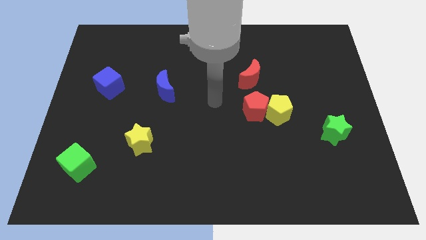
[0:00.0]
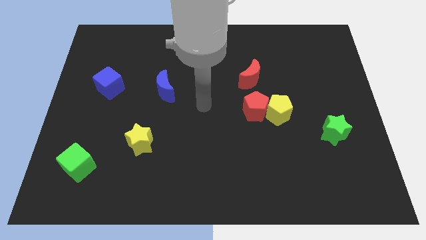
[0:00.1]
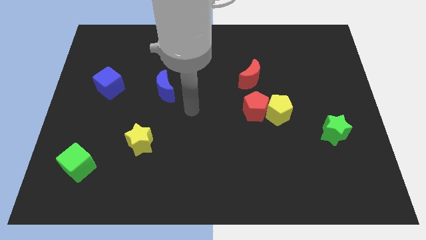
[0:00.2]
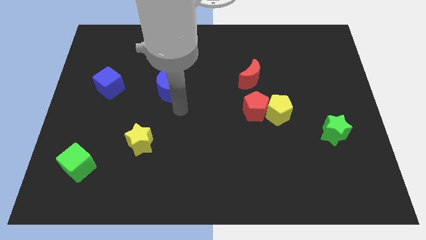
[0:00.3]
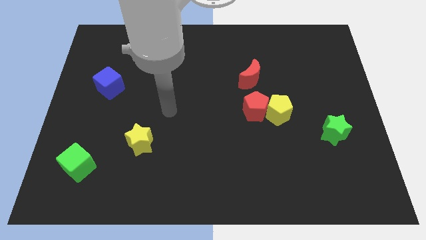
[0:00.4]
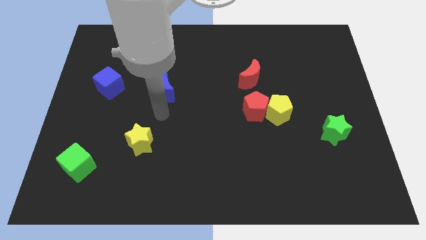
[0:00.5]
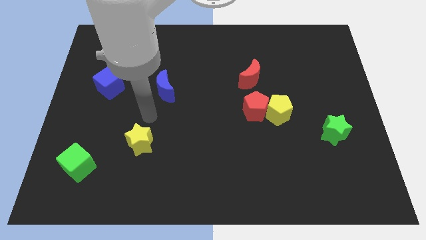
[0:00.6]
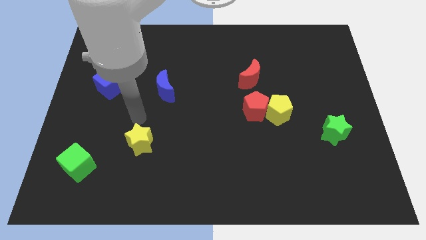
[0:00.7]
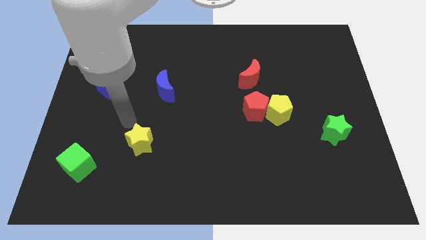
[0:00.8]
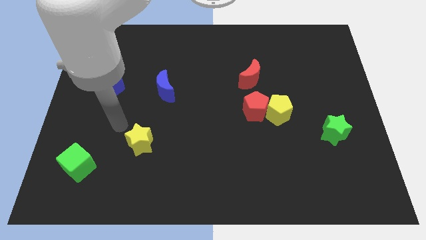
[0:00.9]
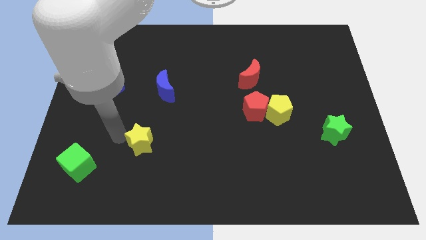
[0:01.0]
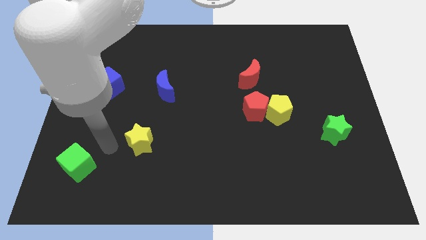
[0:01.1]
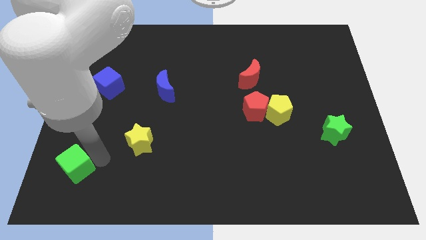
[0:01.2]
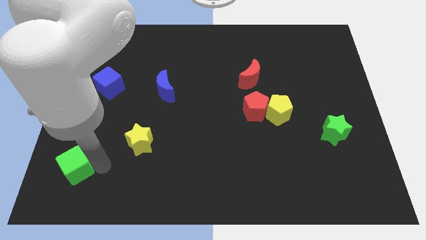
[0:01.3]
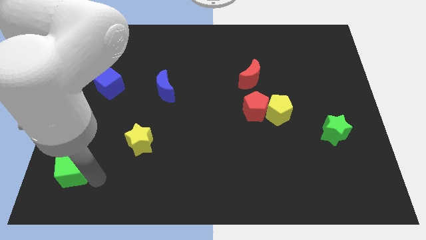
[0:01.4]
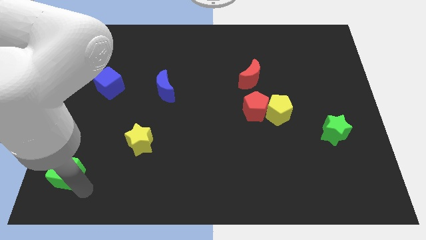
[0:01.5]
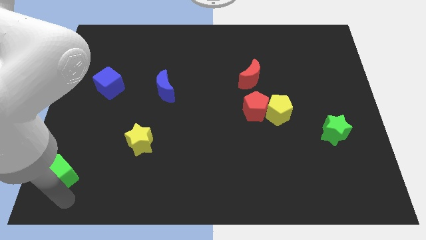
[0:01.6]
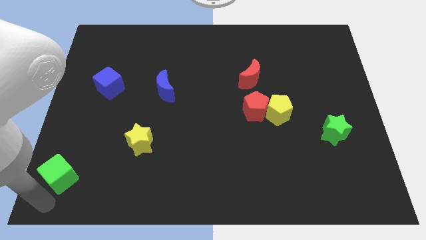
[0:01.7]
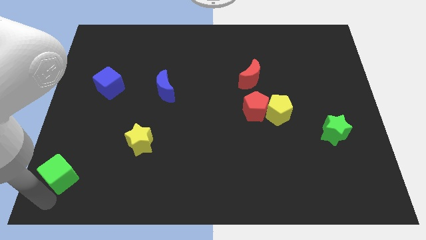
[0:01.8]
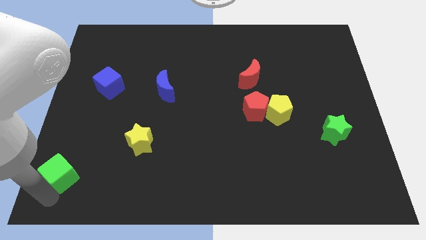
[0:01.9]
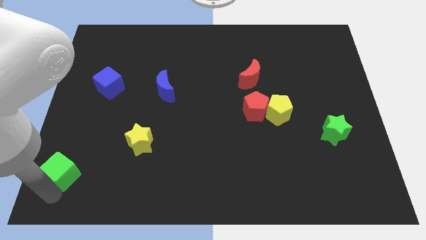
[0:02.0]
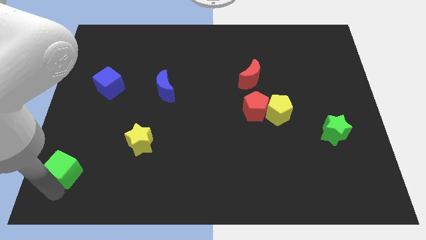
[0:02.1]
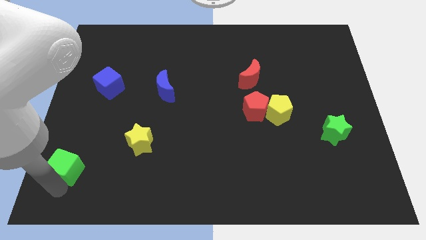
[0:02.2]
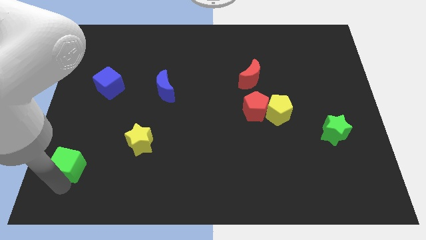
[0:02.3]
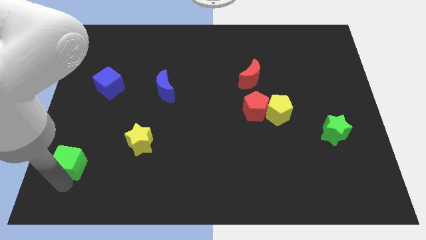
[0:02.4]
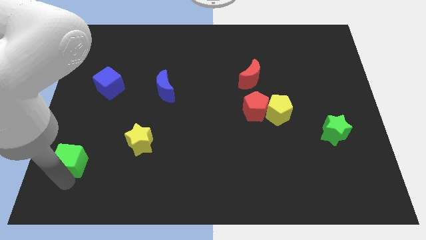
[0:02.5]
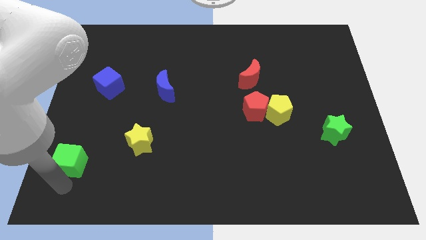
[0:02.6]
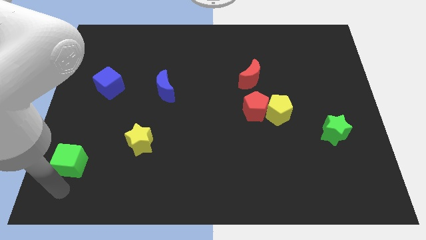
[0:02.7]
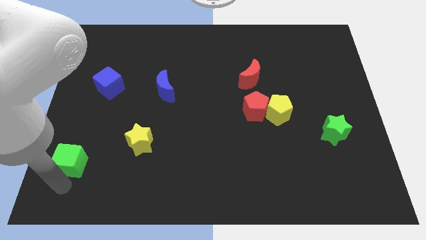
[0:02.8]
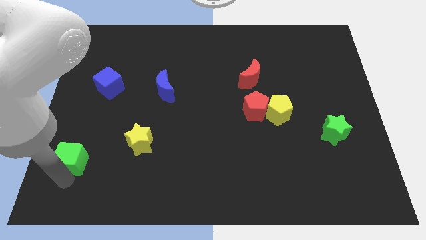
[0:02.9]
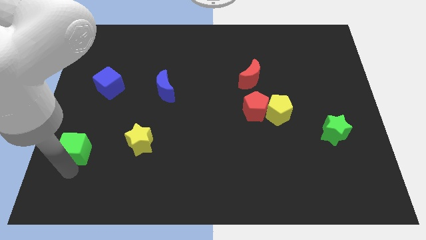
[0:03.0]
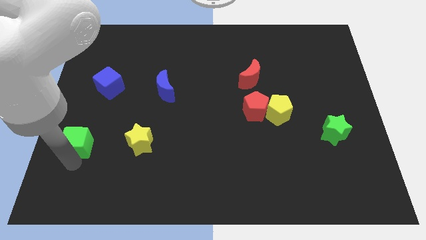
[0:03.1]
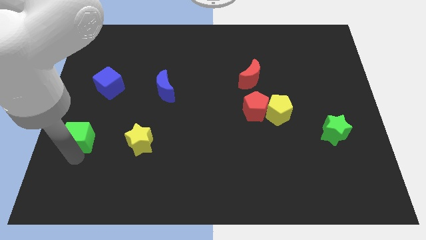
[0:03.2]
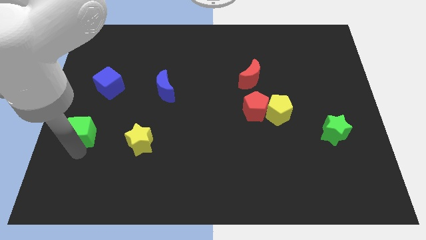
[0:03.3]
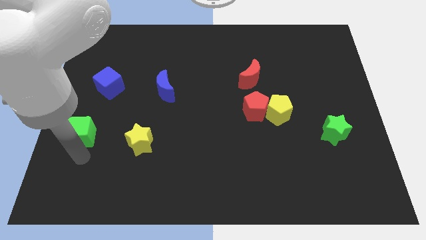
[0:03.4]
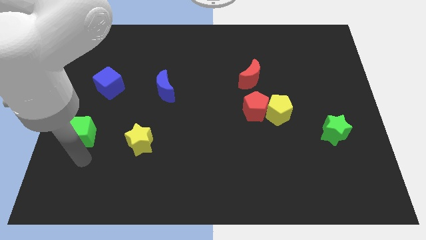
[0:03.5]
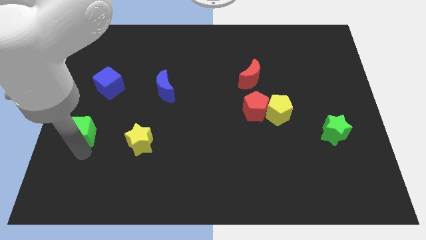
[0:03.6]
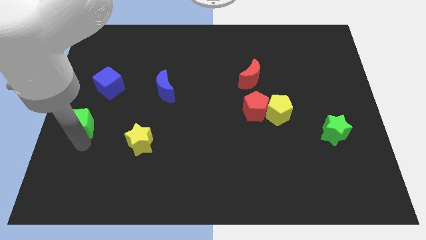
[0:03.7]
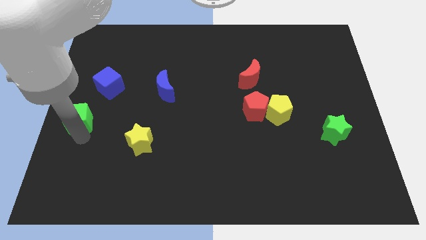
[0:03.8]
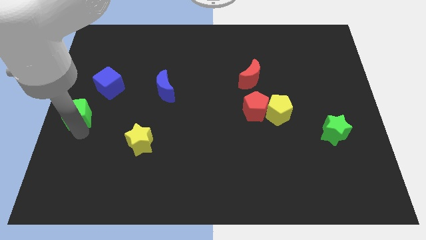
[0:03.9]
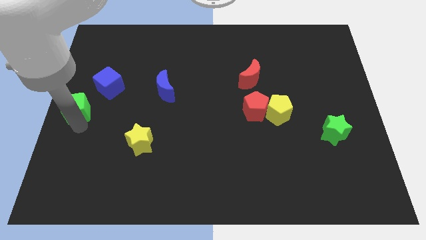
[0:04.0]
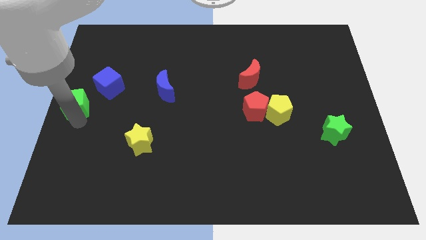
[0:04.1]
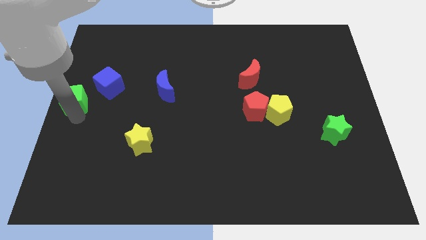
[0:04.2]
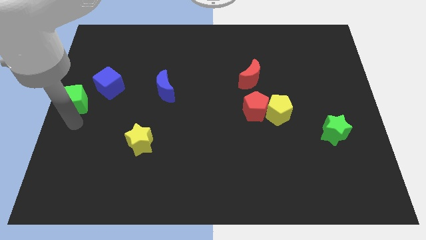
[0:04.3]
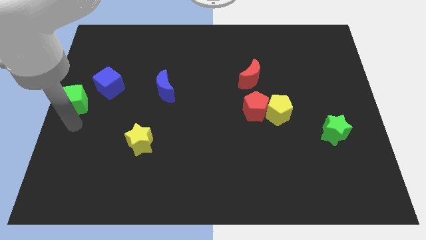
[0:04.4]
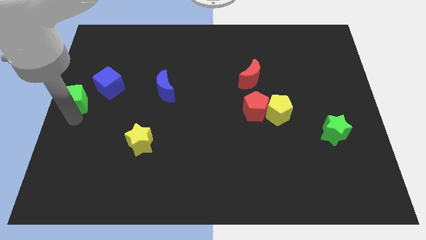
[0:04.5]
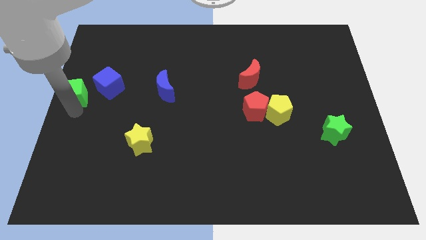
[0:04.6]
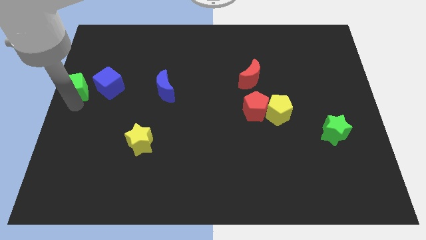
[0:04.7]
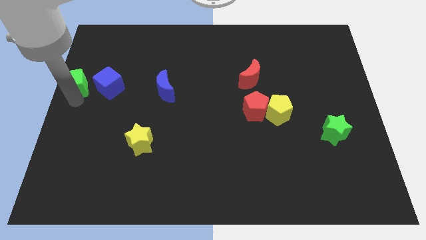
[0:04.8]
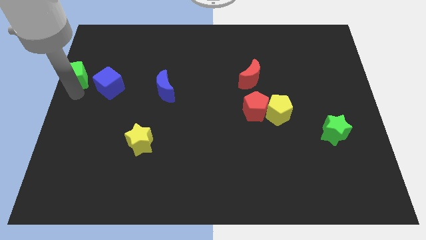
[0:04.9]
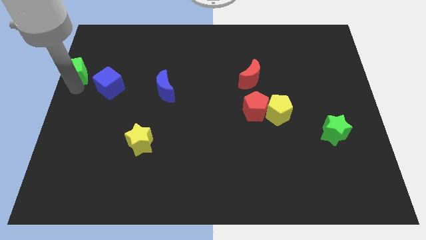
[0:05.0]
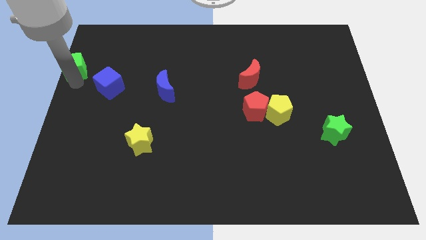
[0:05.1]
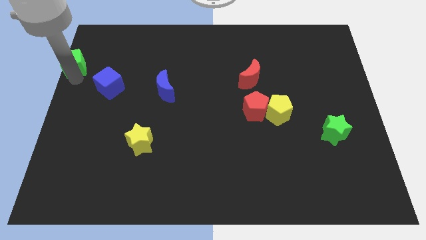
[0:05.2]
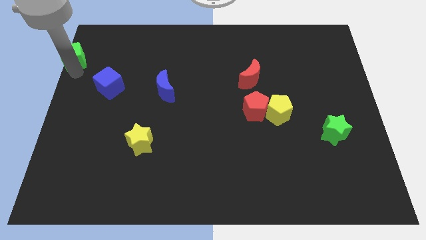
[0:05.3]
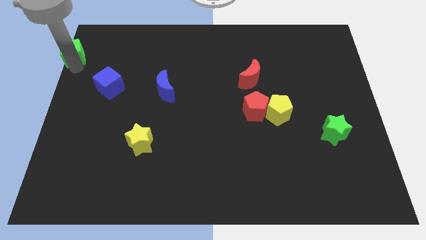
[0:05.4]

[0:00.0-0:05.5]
push the green cube to the top left corner

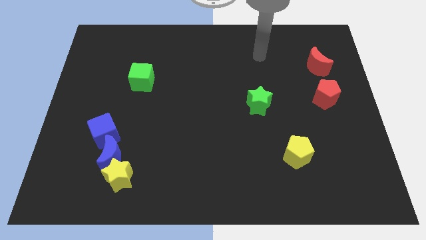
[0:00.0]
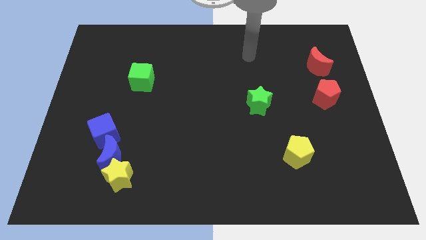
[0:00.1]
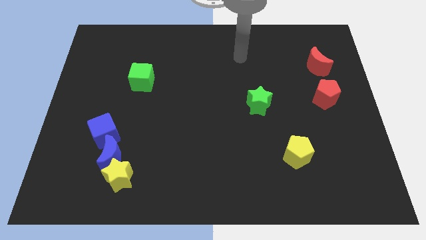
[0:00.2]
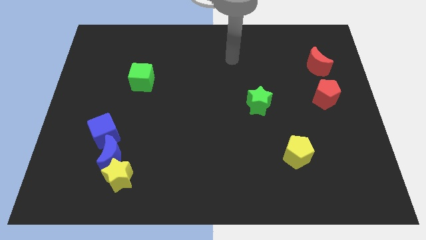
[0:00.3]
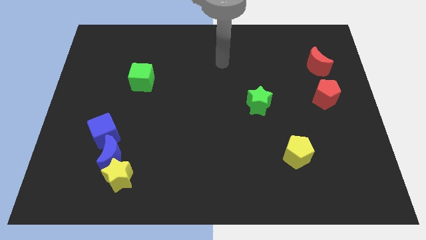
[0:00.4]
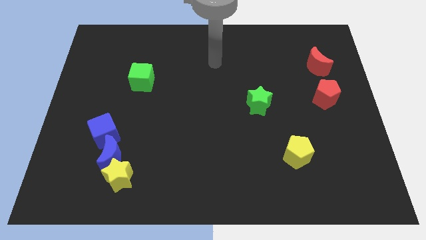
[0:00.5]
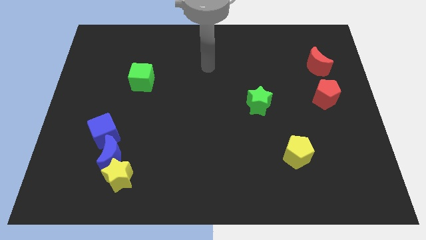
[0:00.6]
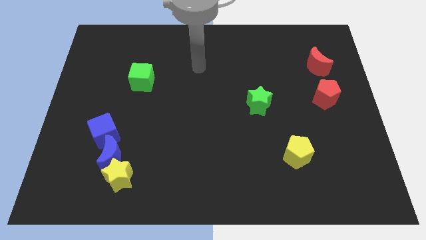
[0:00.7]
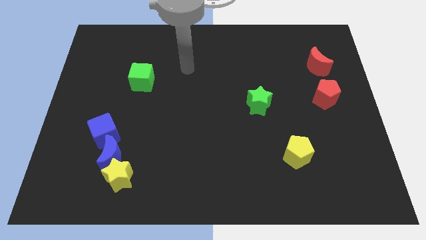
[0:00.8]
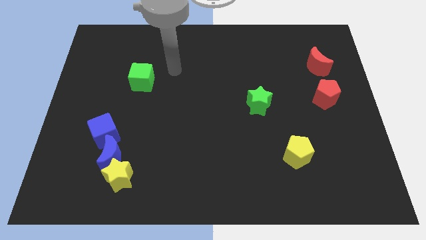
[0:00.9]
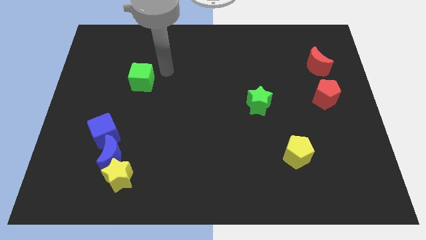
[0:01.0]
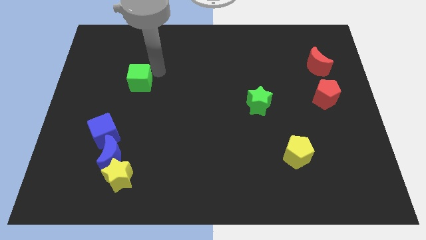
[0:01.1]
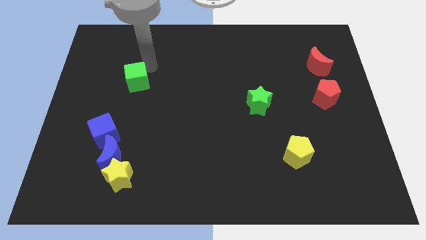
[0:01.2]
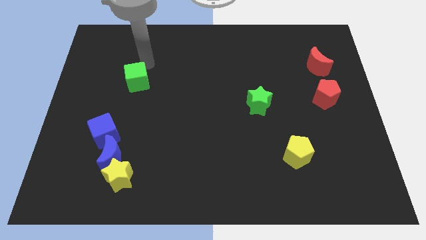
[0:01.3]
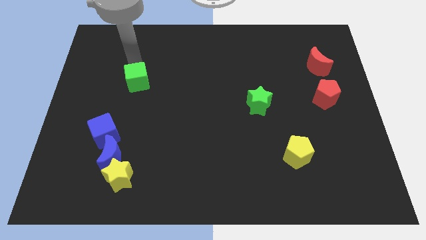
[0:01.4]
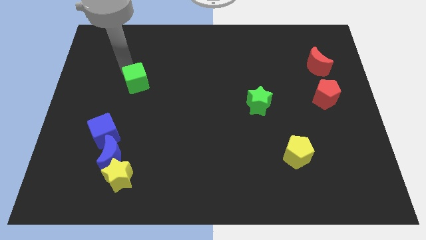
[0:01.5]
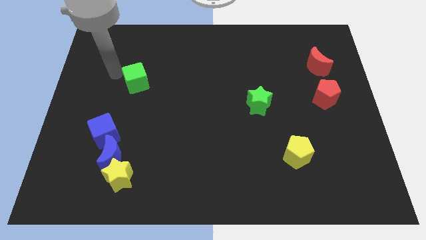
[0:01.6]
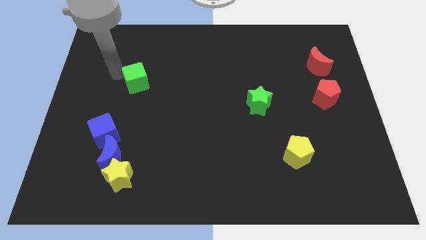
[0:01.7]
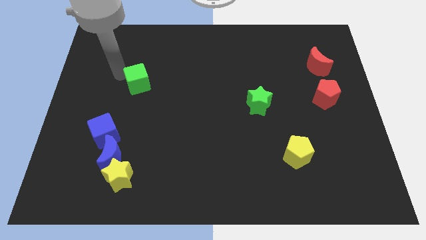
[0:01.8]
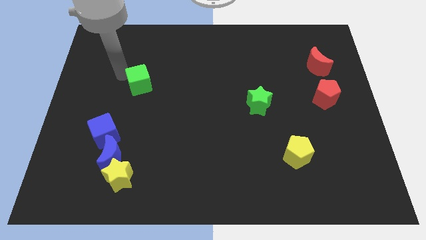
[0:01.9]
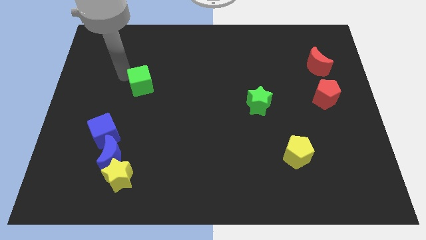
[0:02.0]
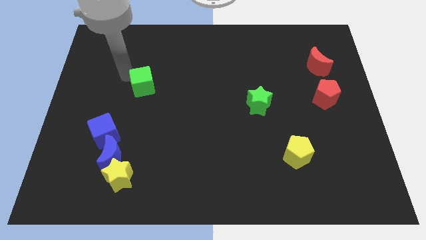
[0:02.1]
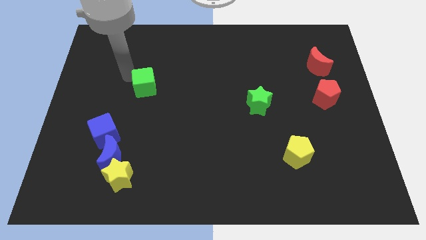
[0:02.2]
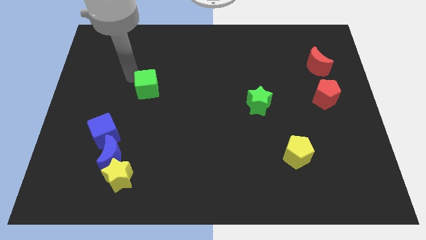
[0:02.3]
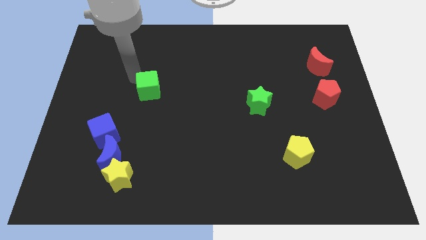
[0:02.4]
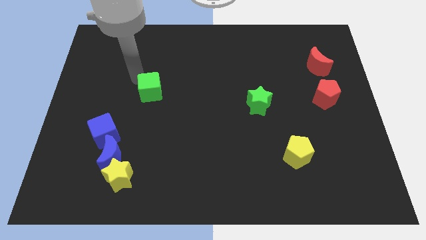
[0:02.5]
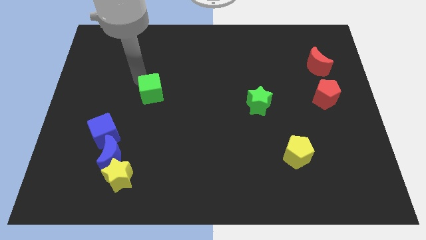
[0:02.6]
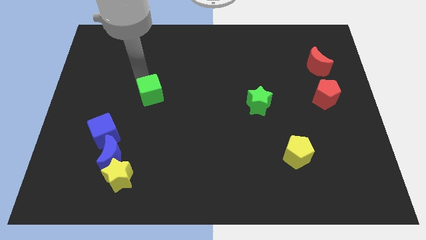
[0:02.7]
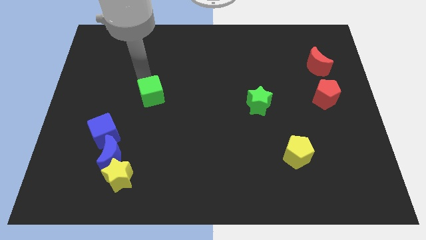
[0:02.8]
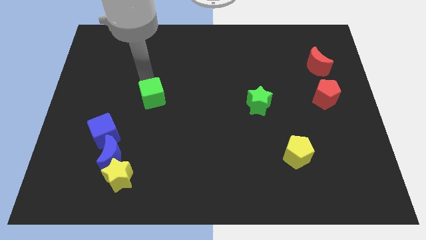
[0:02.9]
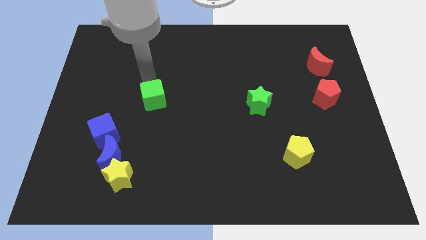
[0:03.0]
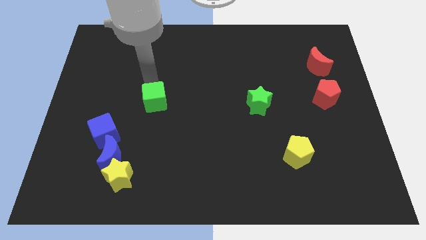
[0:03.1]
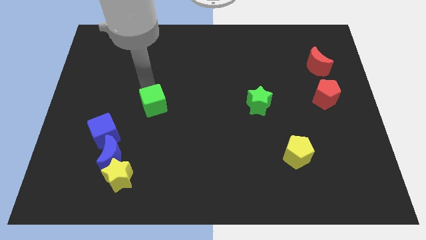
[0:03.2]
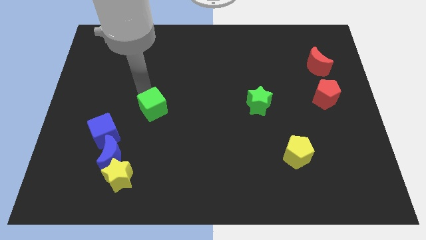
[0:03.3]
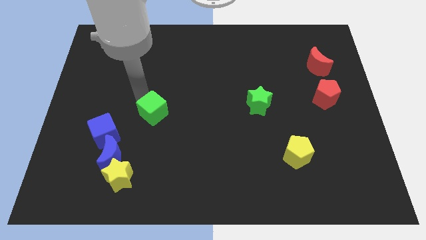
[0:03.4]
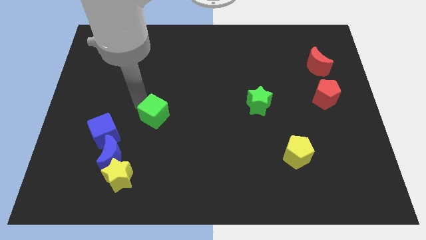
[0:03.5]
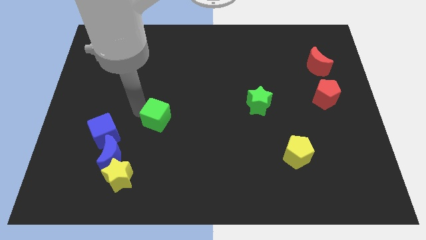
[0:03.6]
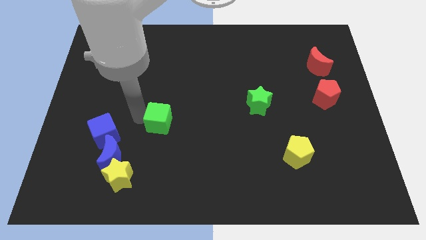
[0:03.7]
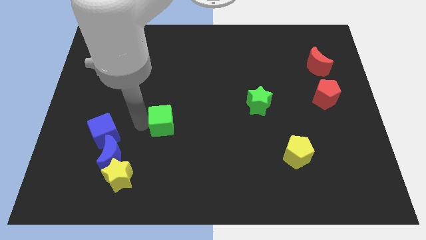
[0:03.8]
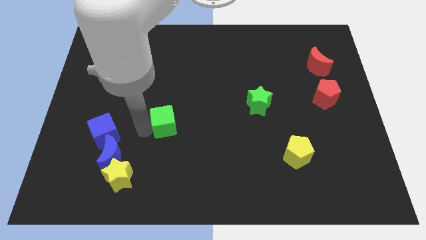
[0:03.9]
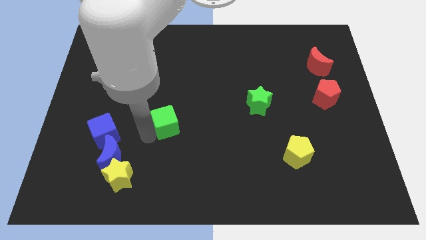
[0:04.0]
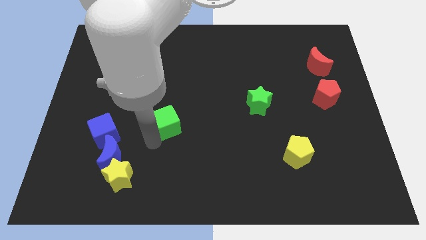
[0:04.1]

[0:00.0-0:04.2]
slide the green cube to the center
